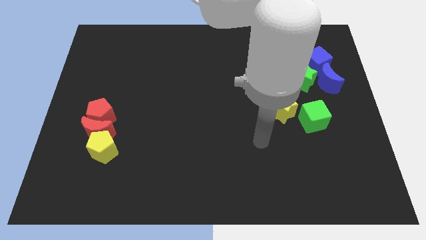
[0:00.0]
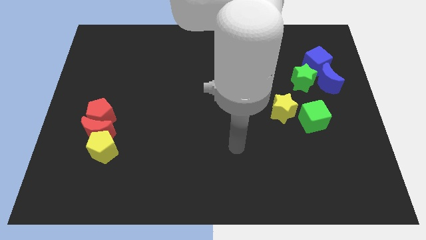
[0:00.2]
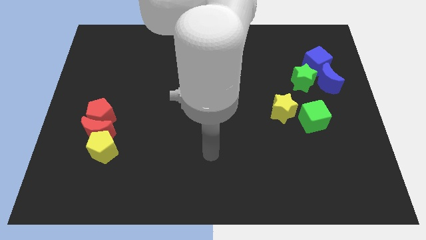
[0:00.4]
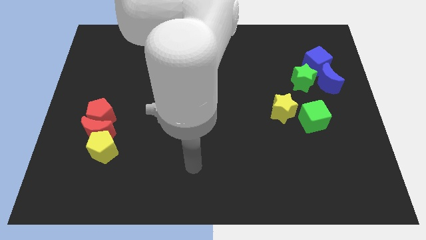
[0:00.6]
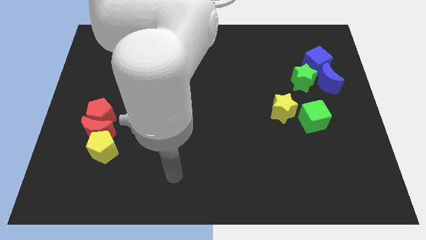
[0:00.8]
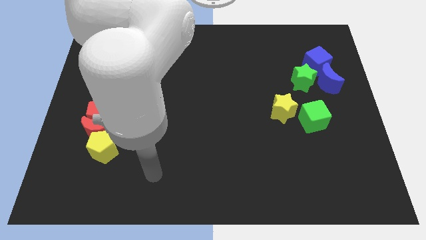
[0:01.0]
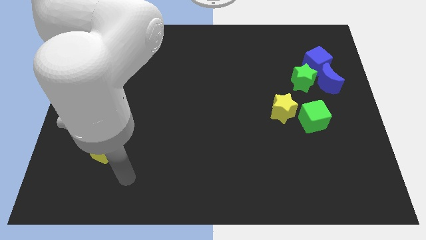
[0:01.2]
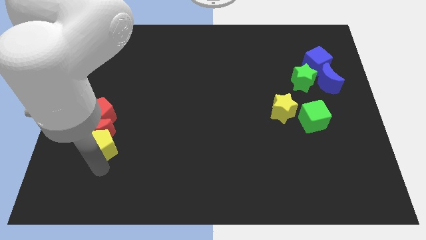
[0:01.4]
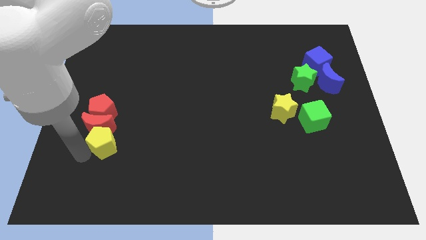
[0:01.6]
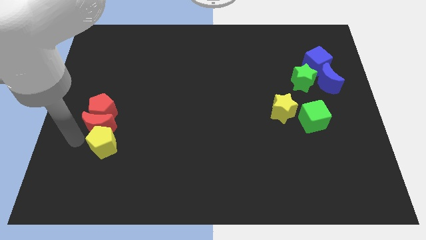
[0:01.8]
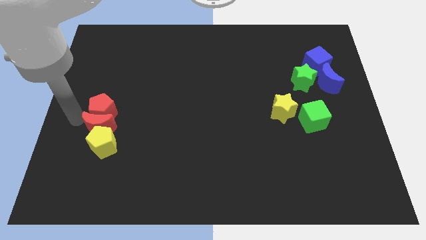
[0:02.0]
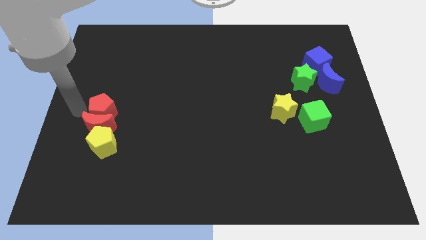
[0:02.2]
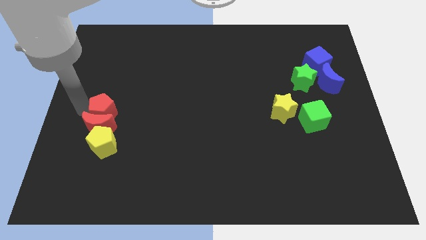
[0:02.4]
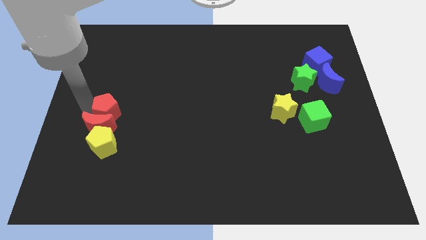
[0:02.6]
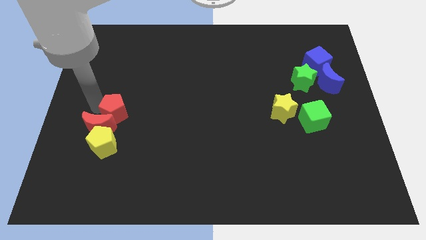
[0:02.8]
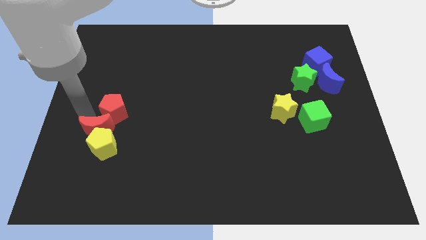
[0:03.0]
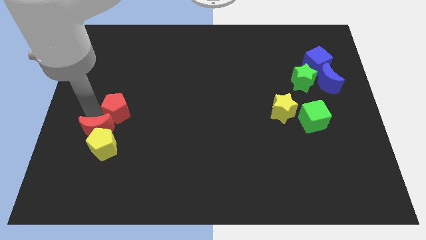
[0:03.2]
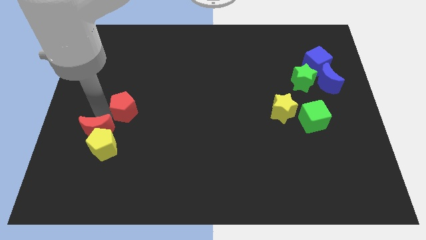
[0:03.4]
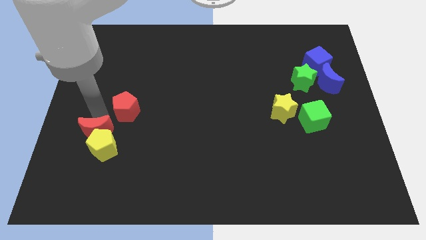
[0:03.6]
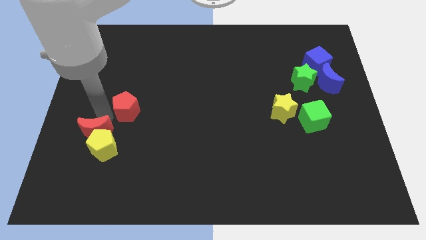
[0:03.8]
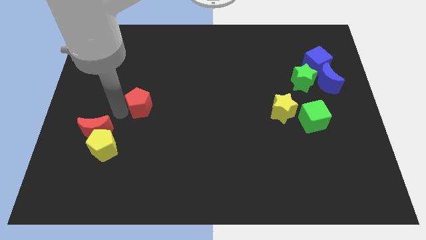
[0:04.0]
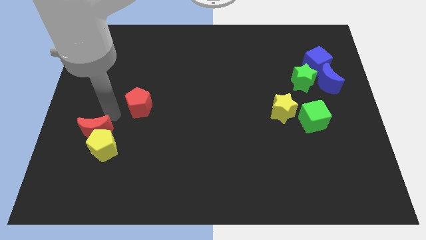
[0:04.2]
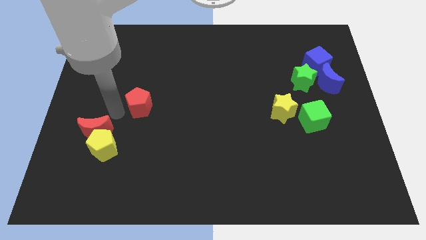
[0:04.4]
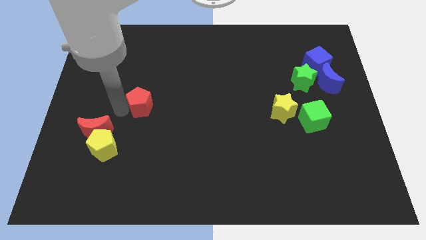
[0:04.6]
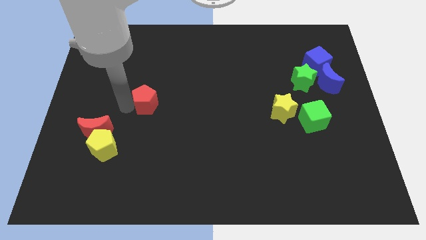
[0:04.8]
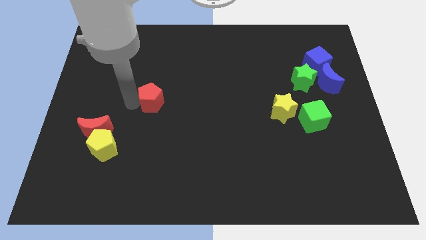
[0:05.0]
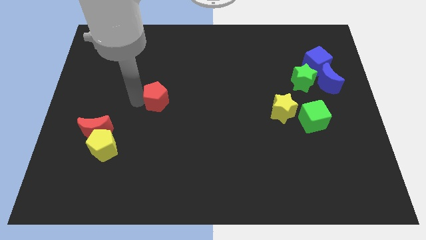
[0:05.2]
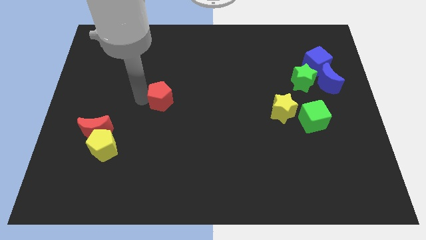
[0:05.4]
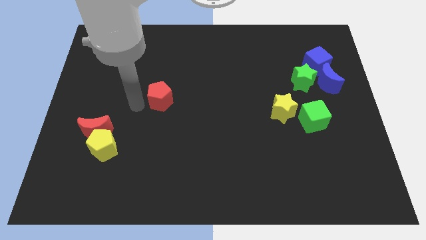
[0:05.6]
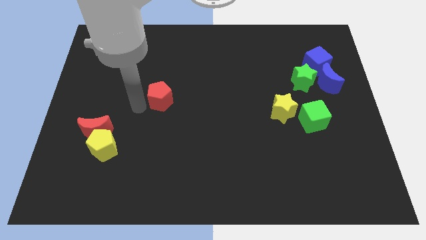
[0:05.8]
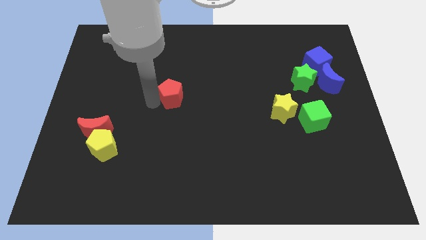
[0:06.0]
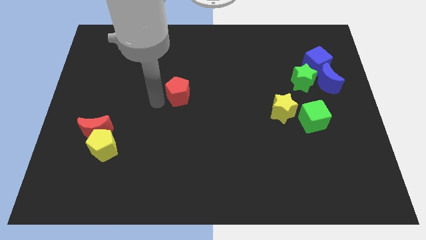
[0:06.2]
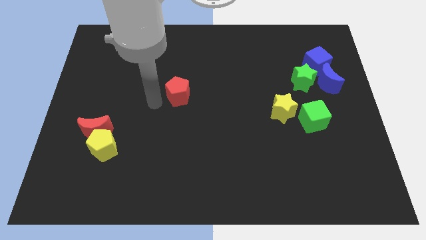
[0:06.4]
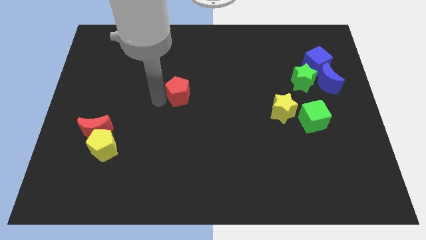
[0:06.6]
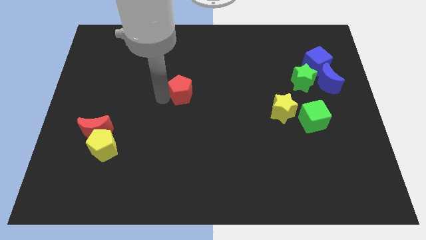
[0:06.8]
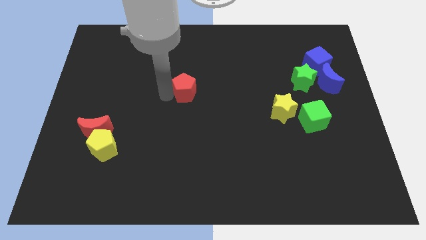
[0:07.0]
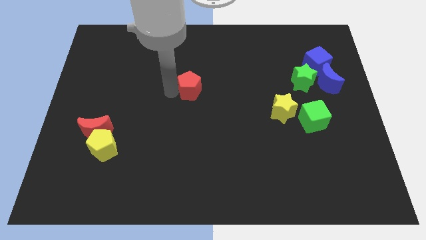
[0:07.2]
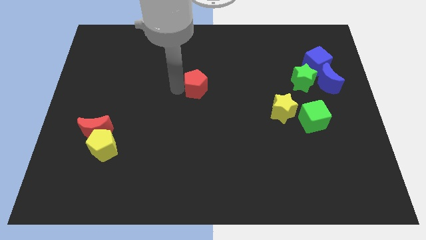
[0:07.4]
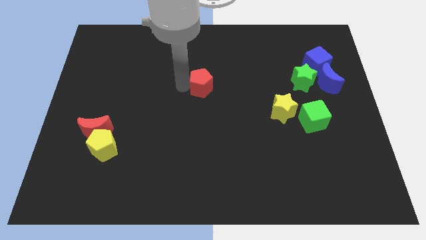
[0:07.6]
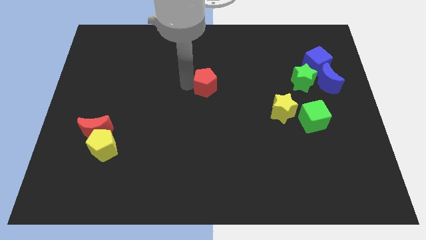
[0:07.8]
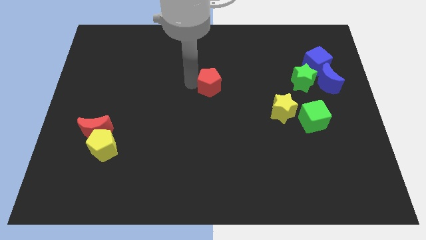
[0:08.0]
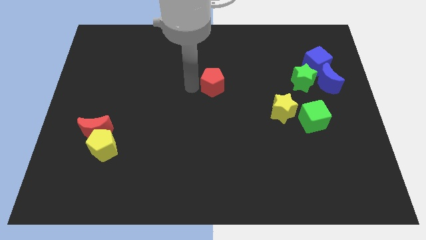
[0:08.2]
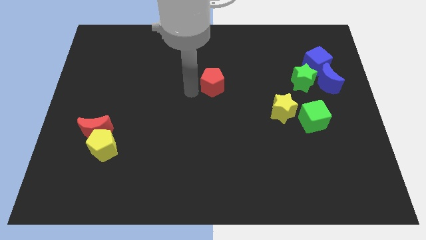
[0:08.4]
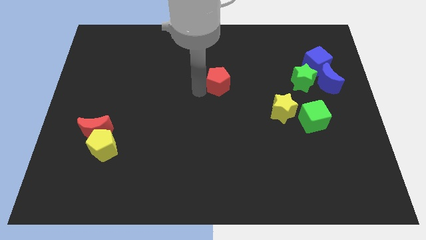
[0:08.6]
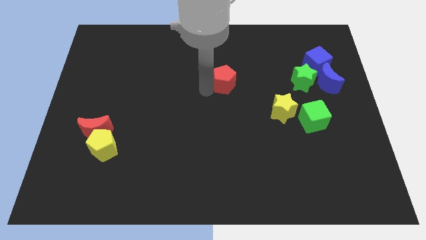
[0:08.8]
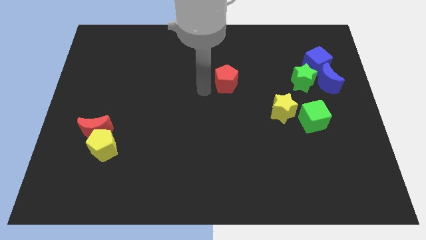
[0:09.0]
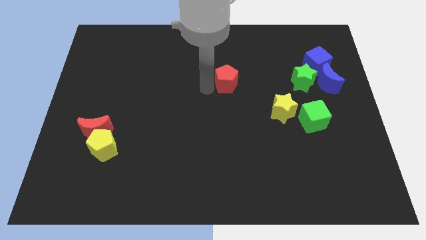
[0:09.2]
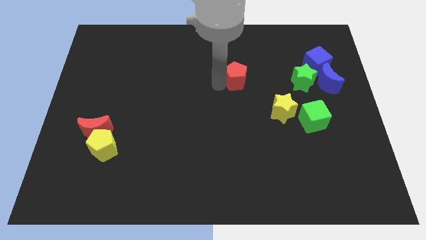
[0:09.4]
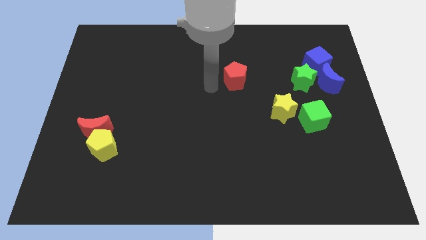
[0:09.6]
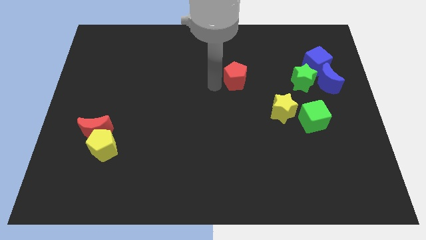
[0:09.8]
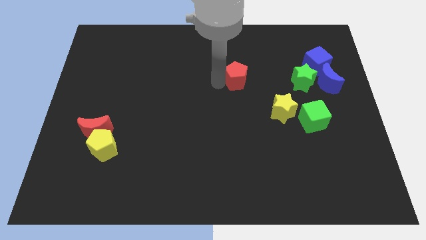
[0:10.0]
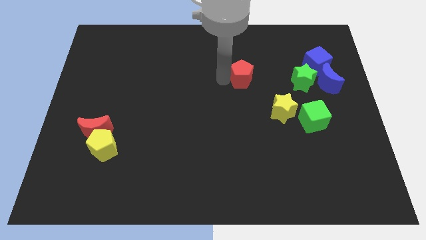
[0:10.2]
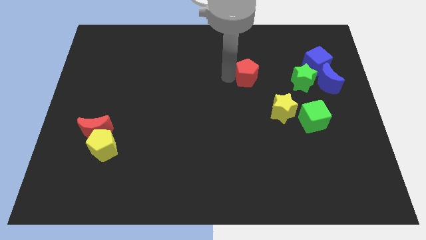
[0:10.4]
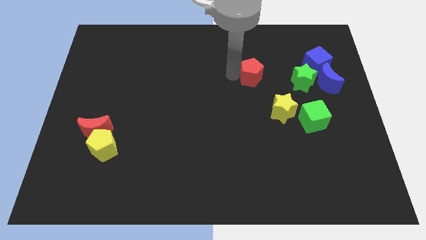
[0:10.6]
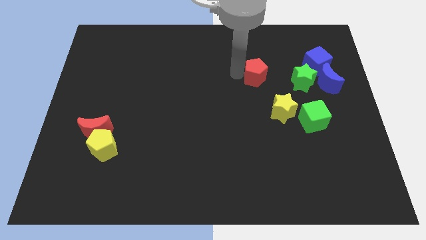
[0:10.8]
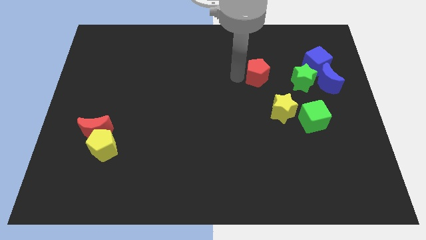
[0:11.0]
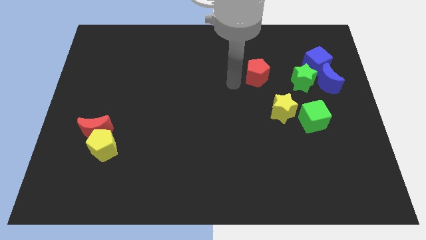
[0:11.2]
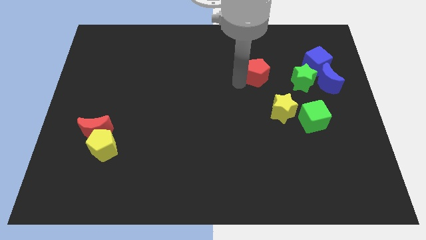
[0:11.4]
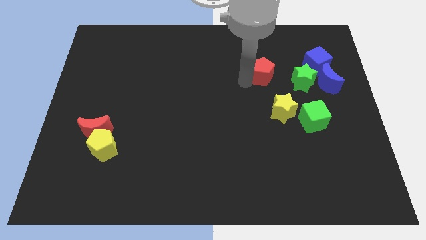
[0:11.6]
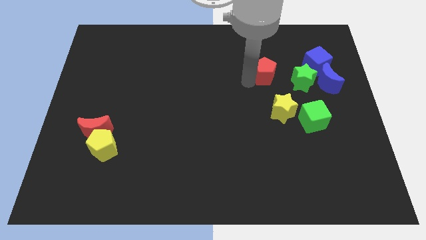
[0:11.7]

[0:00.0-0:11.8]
move the red pentagon to the top left side of the green star

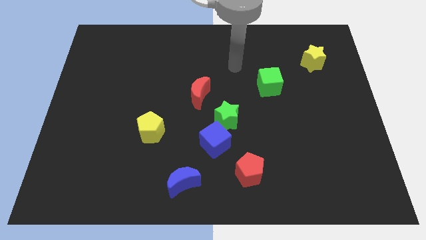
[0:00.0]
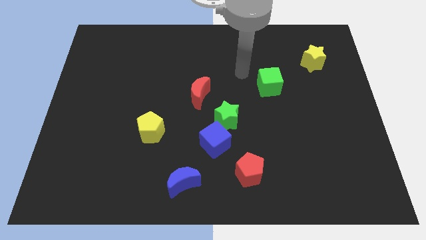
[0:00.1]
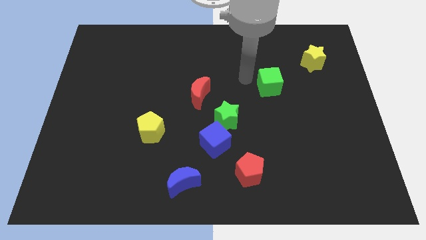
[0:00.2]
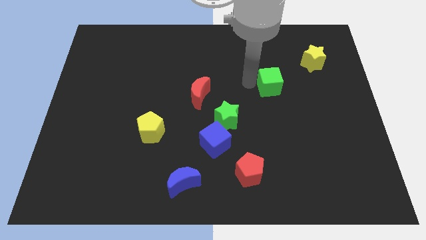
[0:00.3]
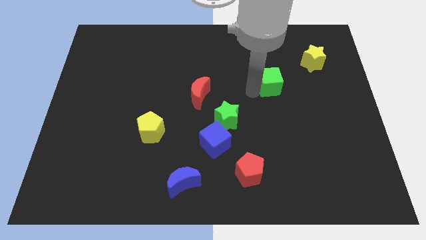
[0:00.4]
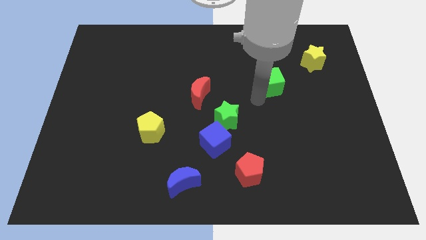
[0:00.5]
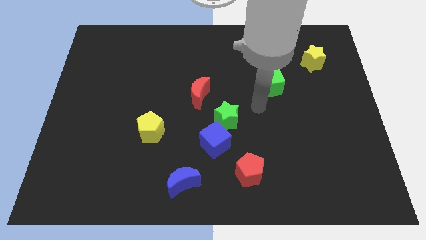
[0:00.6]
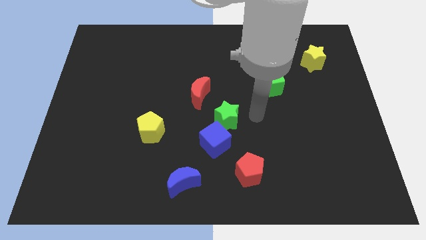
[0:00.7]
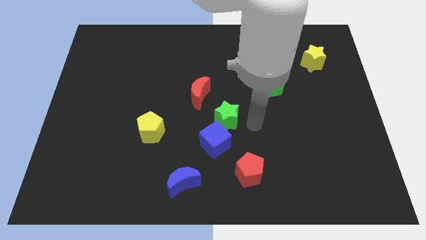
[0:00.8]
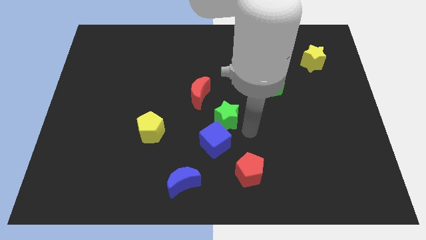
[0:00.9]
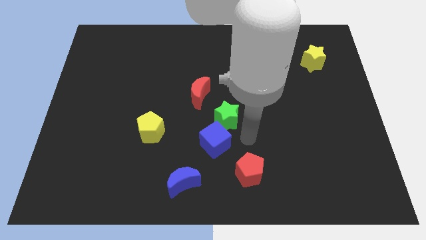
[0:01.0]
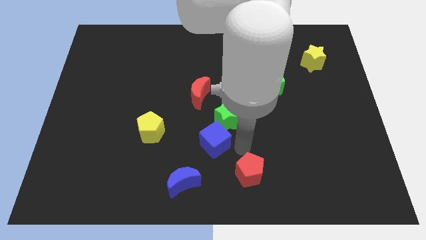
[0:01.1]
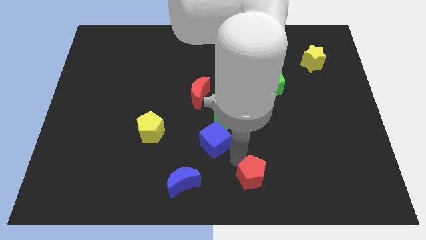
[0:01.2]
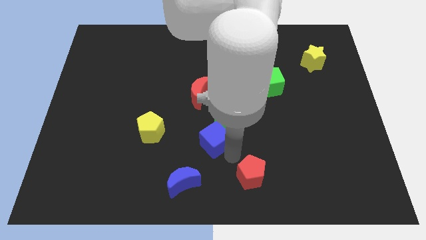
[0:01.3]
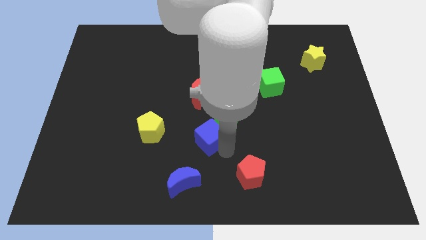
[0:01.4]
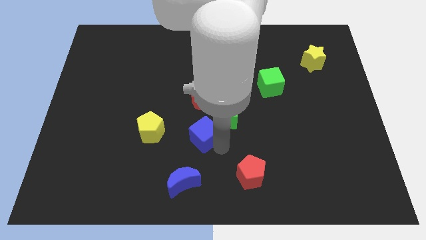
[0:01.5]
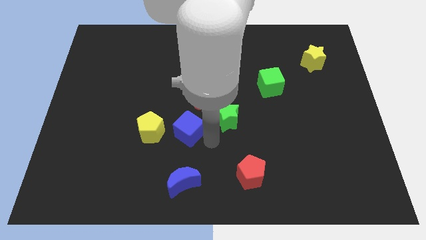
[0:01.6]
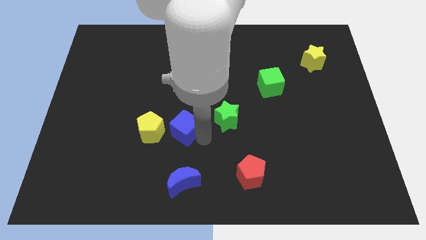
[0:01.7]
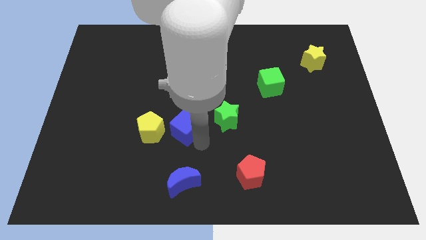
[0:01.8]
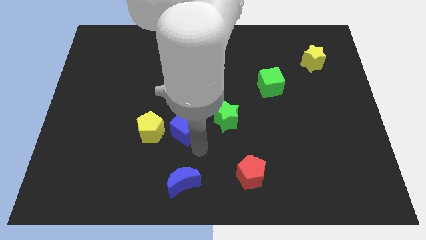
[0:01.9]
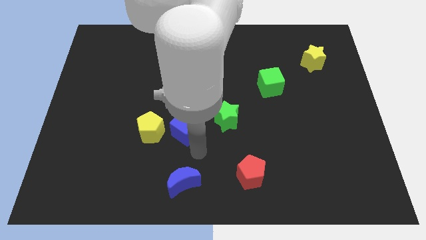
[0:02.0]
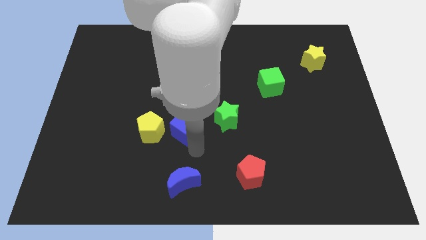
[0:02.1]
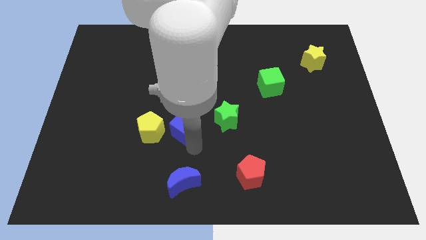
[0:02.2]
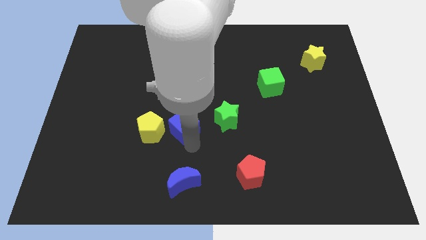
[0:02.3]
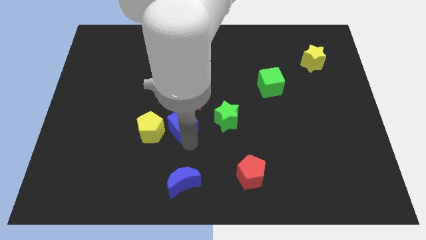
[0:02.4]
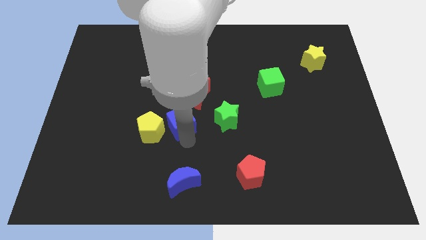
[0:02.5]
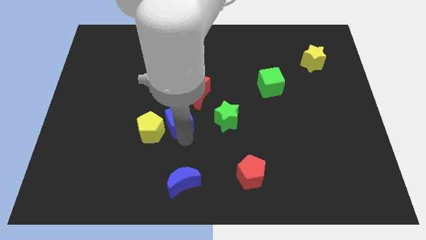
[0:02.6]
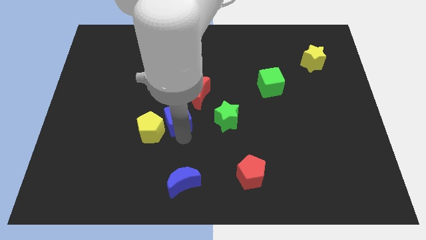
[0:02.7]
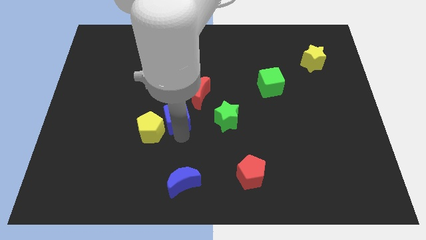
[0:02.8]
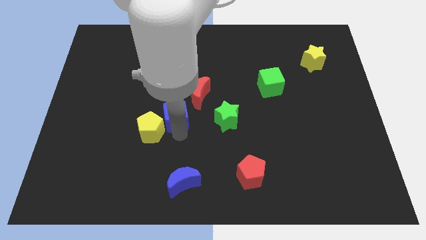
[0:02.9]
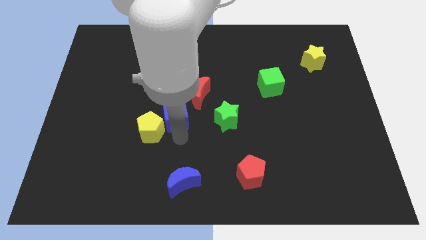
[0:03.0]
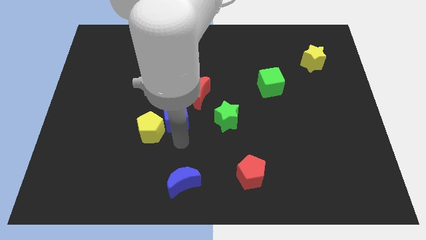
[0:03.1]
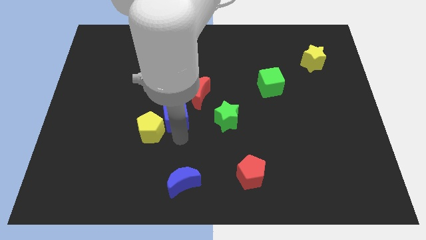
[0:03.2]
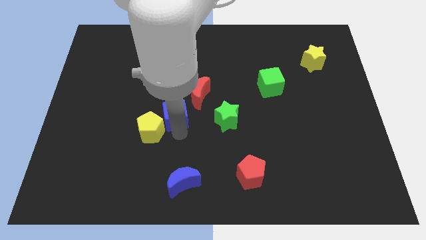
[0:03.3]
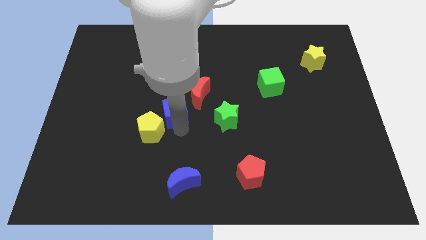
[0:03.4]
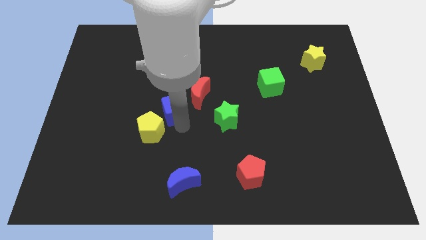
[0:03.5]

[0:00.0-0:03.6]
move the blue cube to the top of the yellow pentagon
